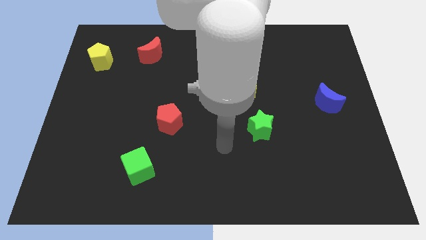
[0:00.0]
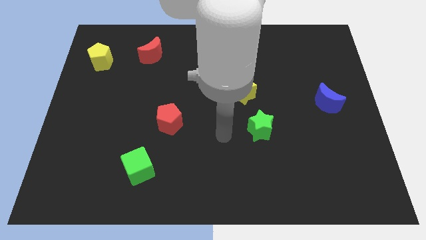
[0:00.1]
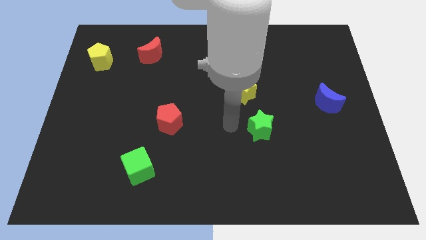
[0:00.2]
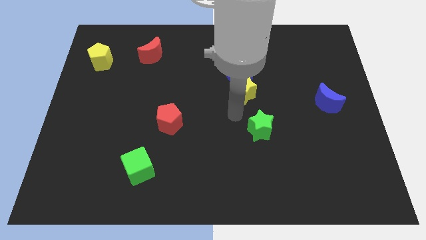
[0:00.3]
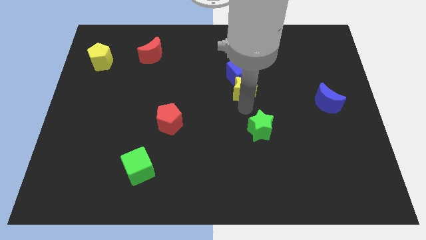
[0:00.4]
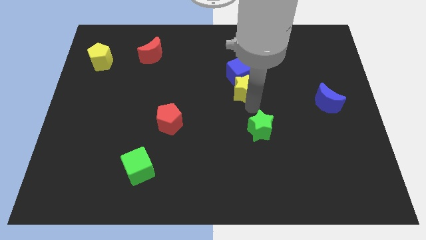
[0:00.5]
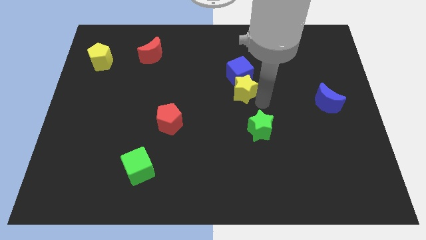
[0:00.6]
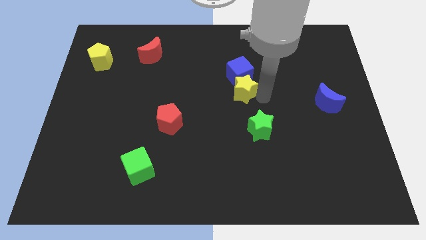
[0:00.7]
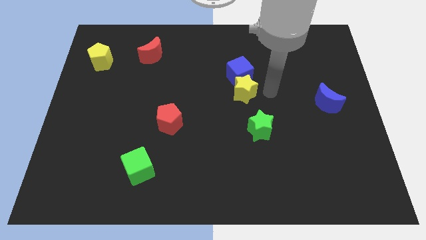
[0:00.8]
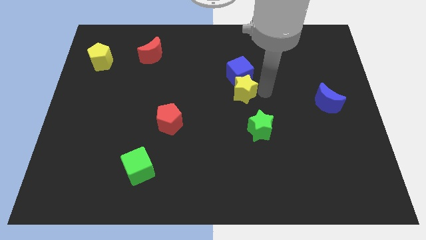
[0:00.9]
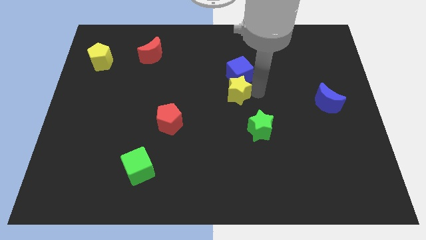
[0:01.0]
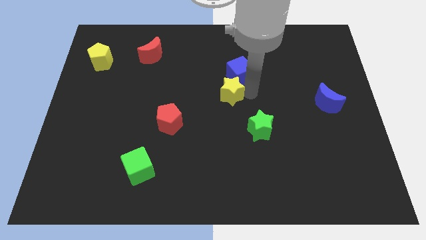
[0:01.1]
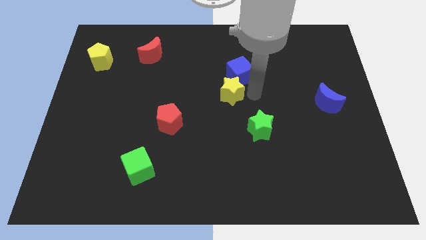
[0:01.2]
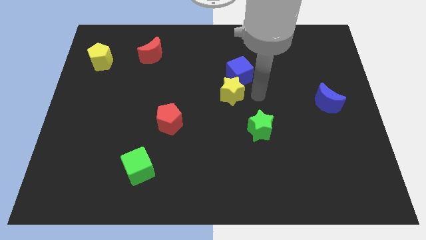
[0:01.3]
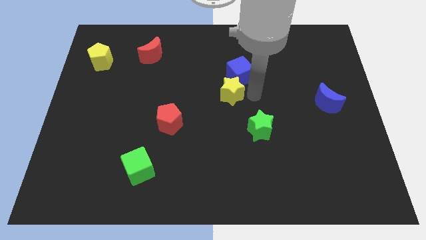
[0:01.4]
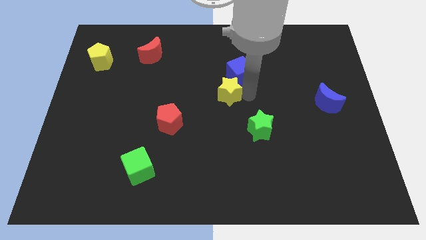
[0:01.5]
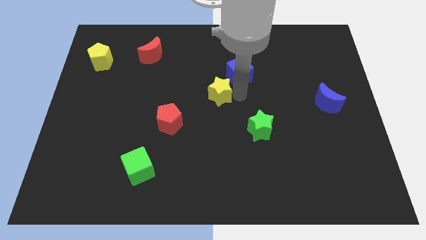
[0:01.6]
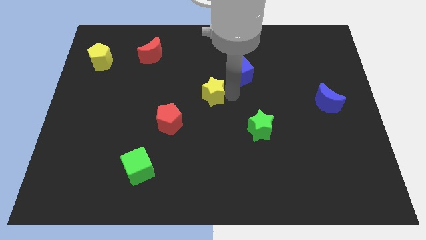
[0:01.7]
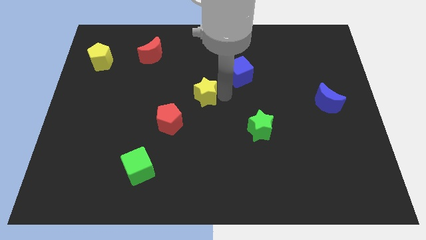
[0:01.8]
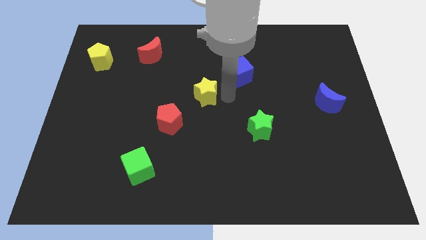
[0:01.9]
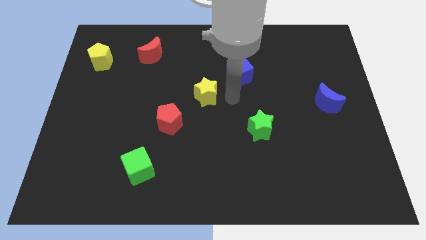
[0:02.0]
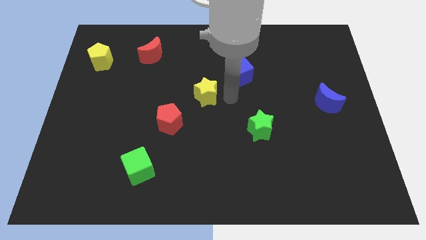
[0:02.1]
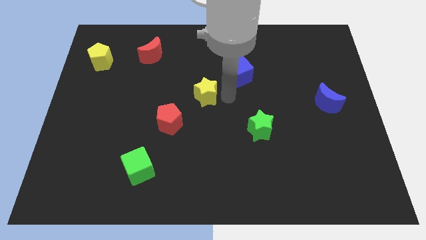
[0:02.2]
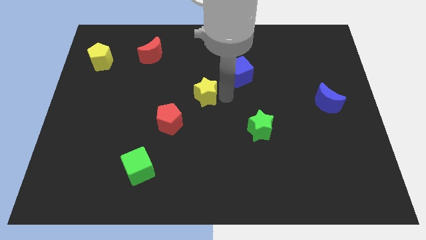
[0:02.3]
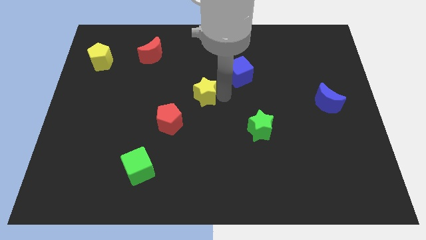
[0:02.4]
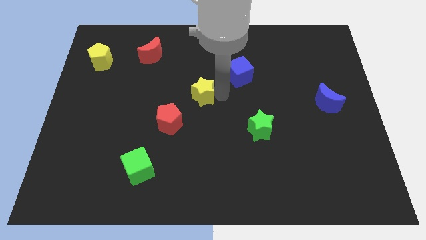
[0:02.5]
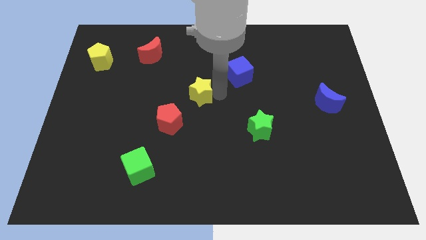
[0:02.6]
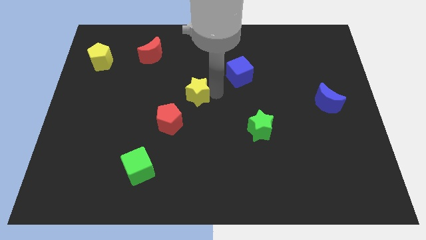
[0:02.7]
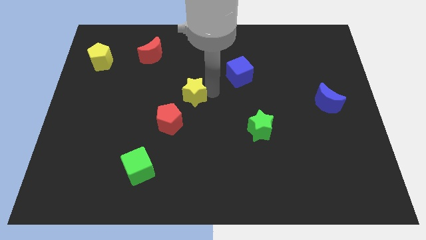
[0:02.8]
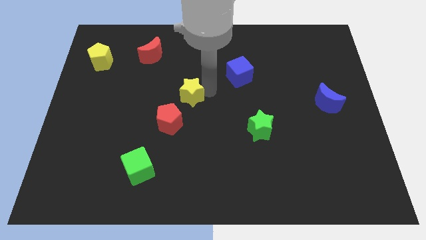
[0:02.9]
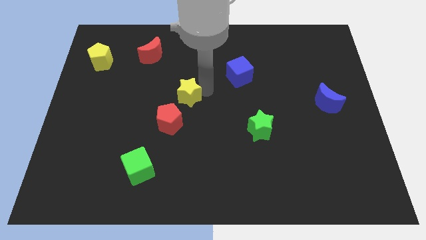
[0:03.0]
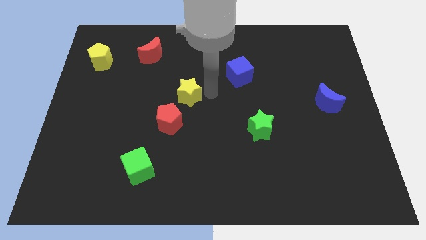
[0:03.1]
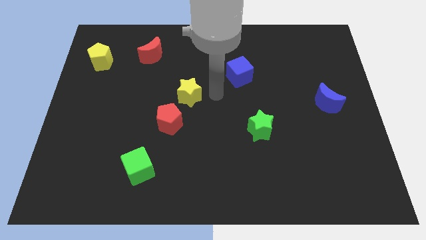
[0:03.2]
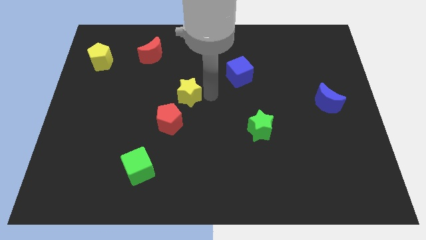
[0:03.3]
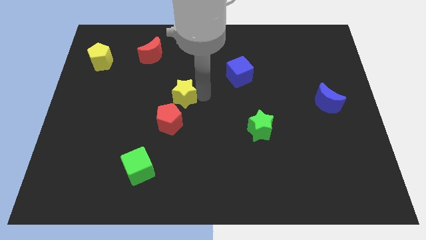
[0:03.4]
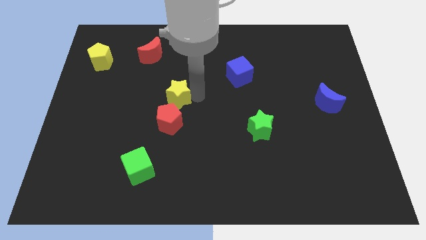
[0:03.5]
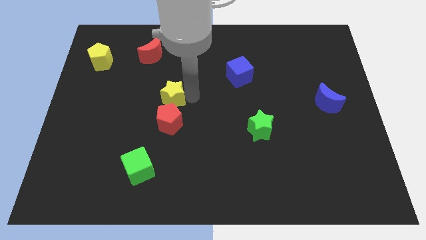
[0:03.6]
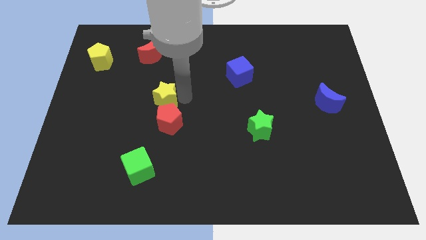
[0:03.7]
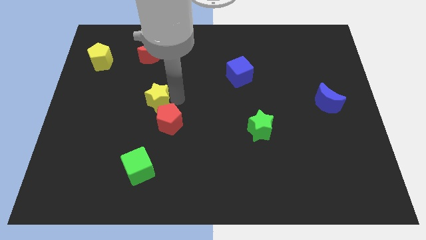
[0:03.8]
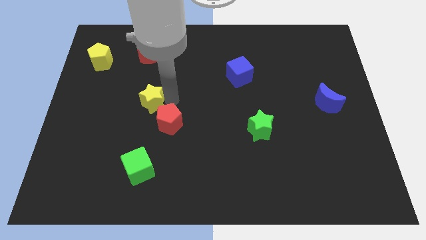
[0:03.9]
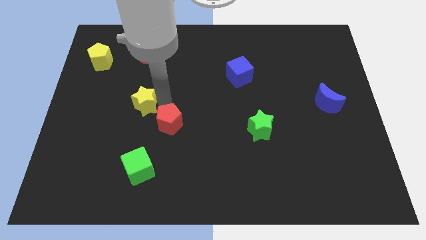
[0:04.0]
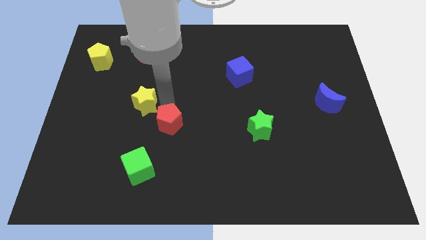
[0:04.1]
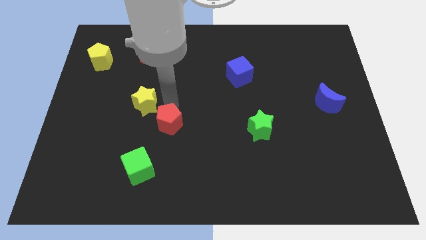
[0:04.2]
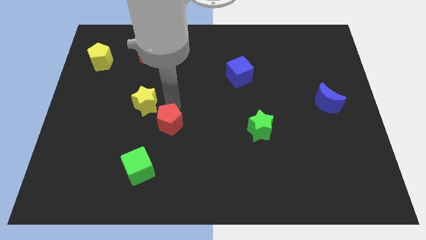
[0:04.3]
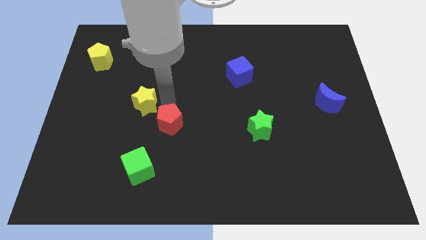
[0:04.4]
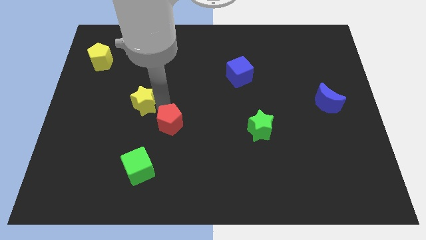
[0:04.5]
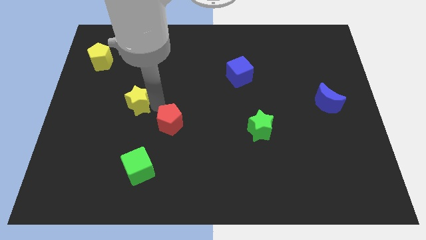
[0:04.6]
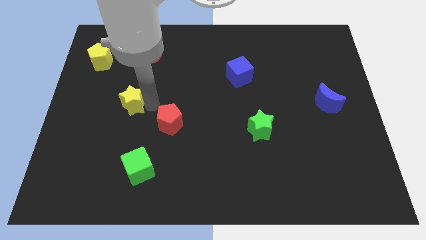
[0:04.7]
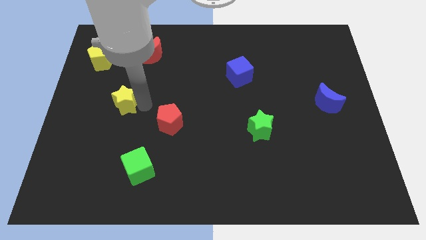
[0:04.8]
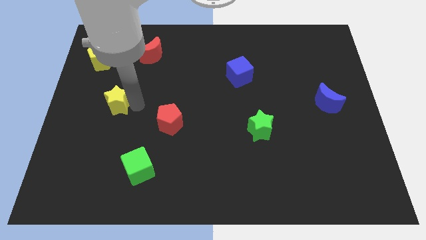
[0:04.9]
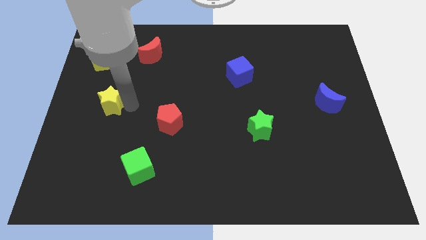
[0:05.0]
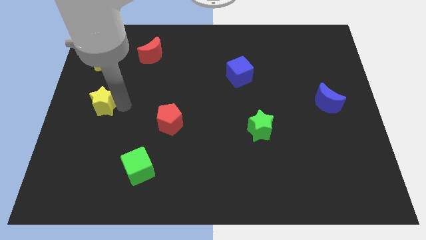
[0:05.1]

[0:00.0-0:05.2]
move the yellow star to the left side

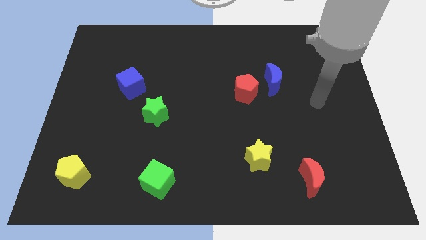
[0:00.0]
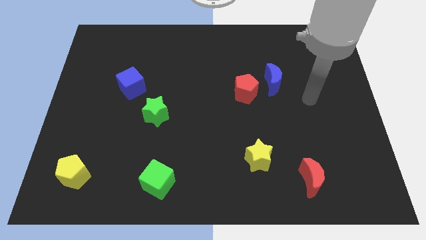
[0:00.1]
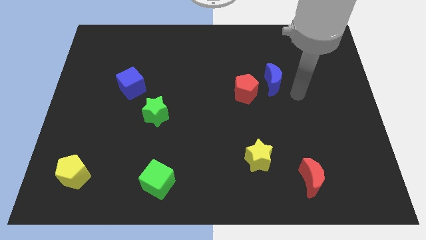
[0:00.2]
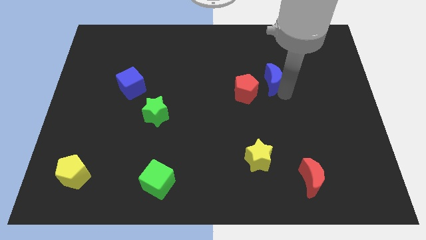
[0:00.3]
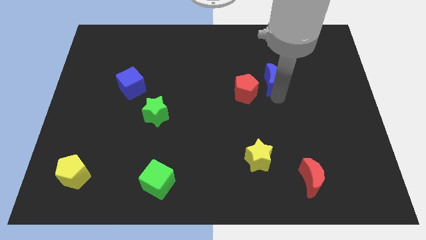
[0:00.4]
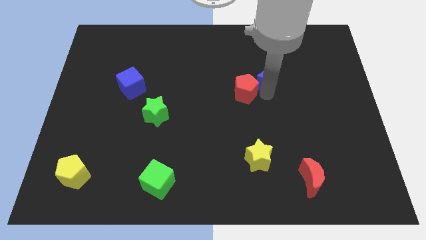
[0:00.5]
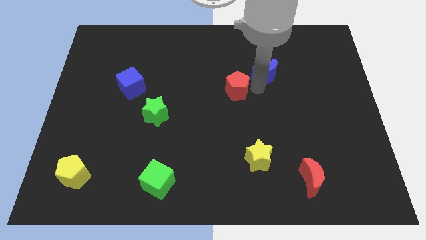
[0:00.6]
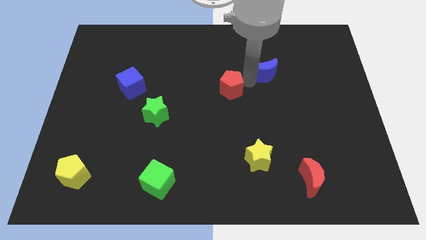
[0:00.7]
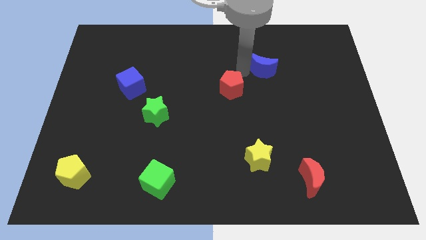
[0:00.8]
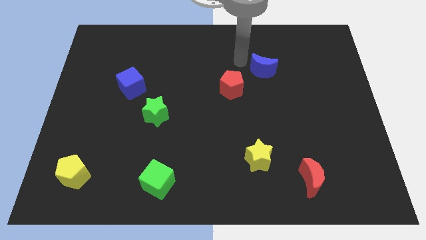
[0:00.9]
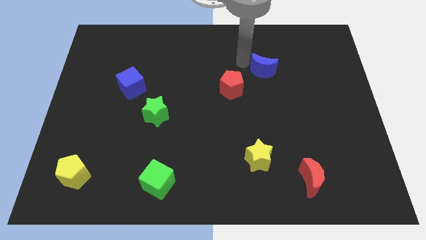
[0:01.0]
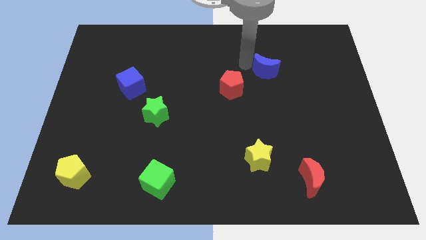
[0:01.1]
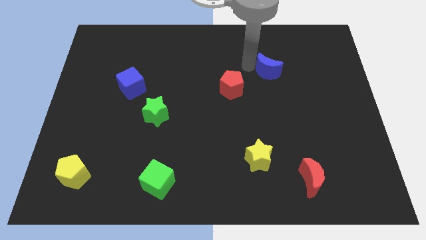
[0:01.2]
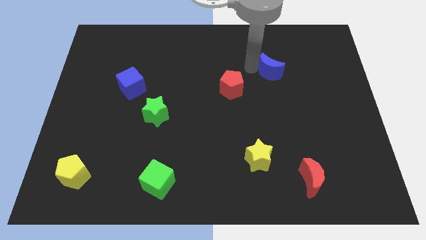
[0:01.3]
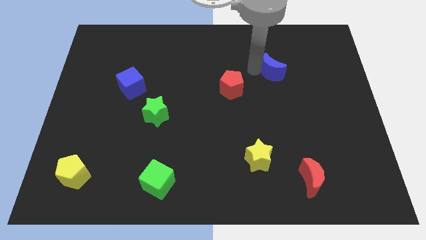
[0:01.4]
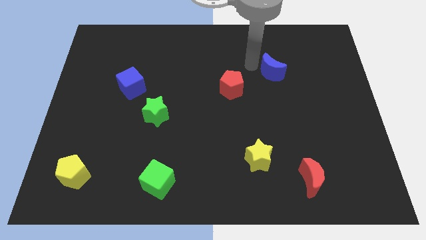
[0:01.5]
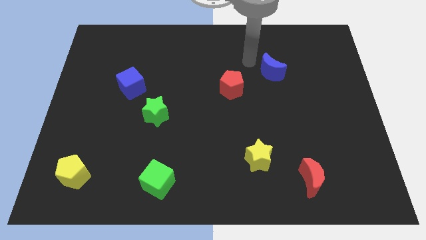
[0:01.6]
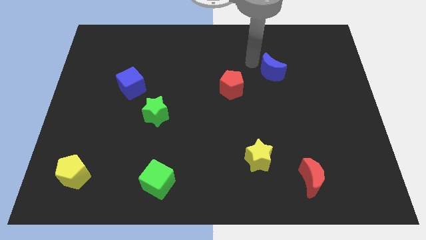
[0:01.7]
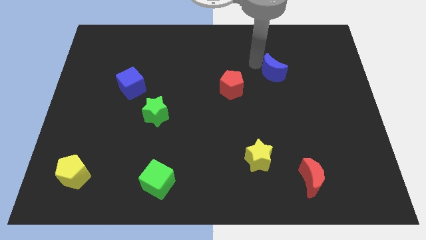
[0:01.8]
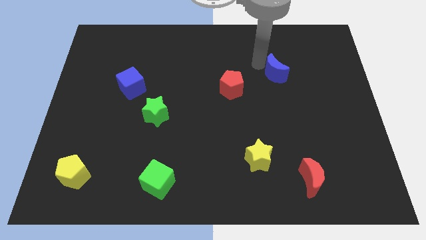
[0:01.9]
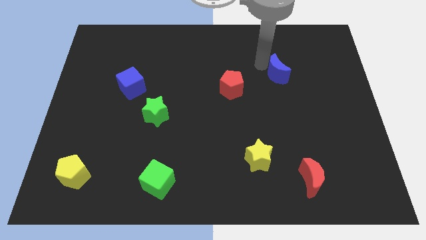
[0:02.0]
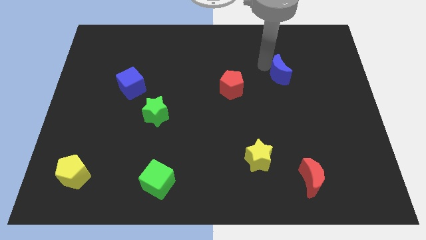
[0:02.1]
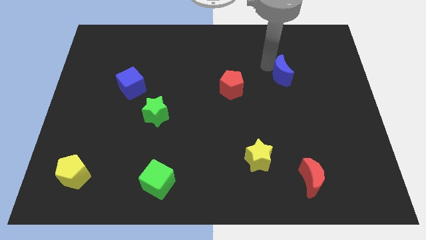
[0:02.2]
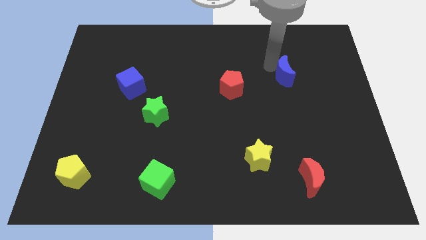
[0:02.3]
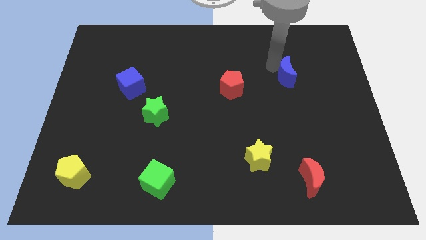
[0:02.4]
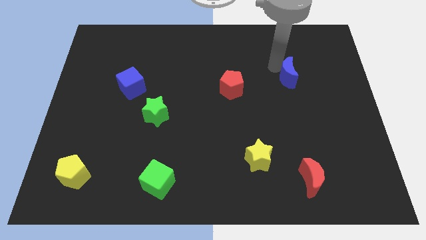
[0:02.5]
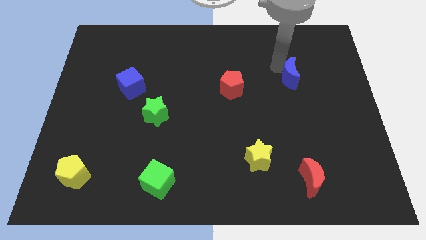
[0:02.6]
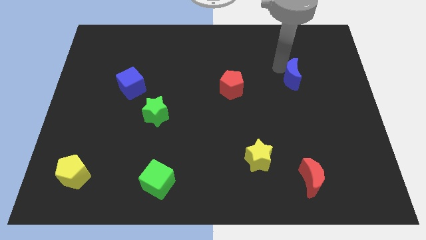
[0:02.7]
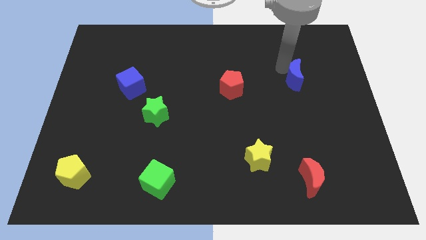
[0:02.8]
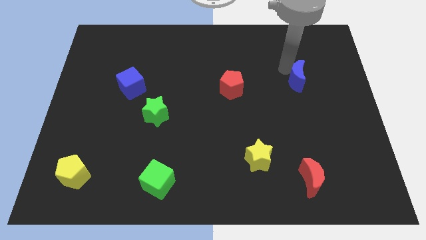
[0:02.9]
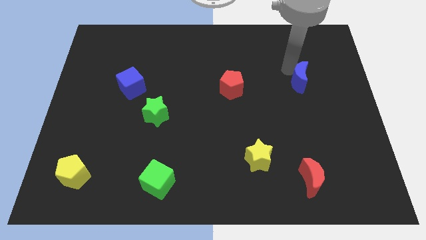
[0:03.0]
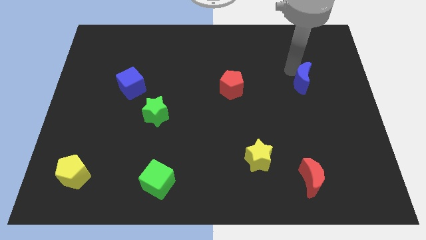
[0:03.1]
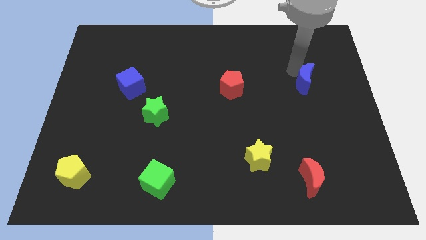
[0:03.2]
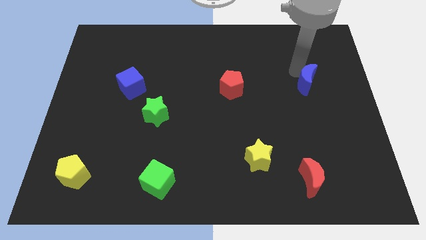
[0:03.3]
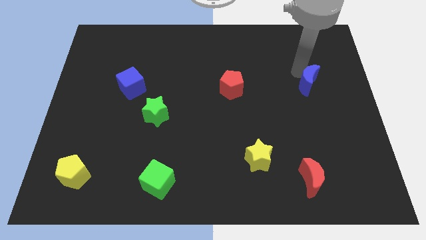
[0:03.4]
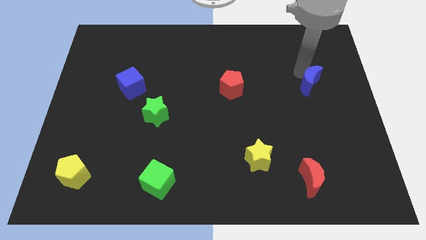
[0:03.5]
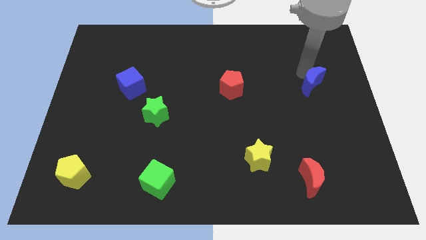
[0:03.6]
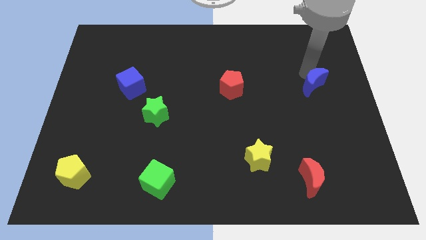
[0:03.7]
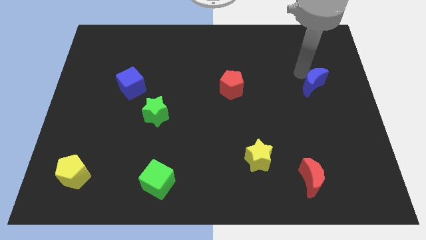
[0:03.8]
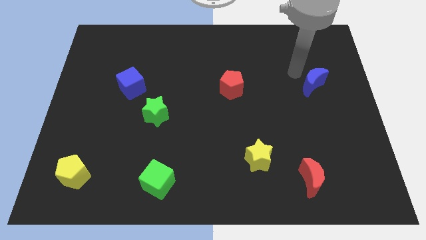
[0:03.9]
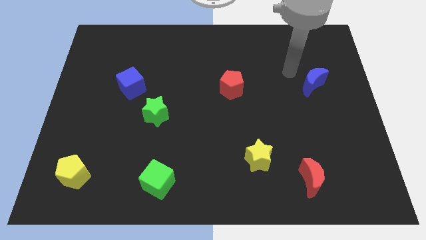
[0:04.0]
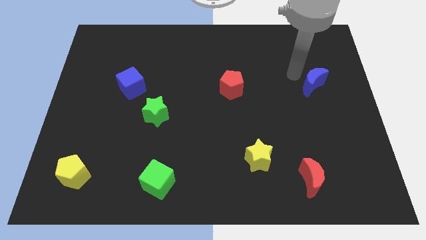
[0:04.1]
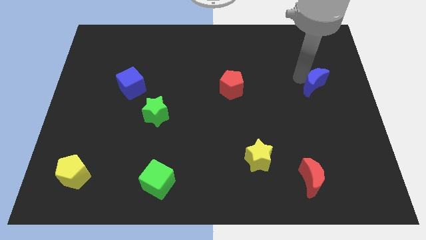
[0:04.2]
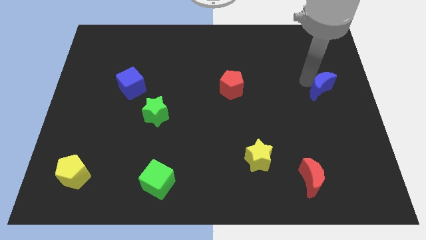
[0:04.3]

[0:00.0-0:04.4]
move the blue moon to the right side
